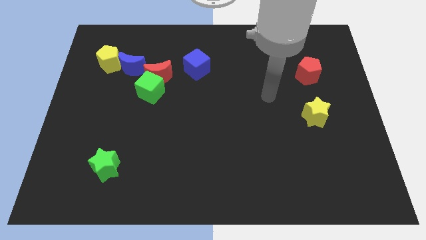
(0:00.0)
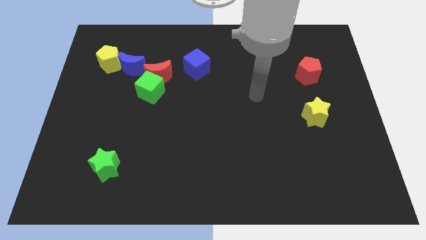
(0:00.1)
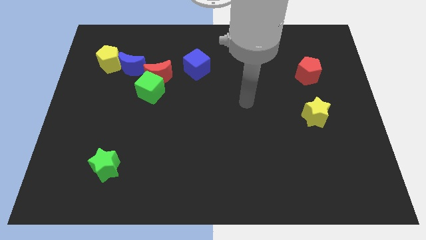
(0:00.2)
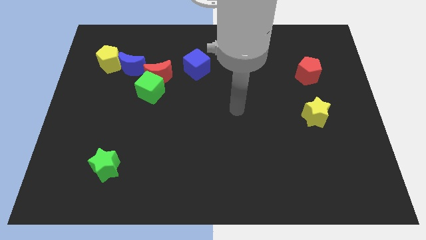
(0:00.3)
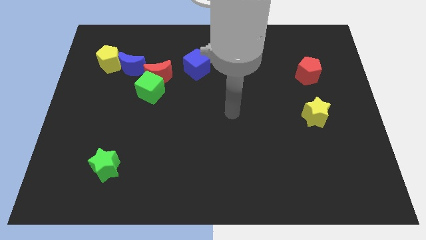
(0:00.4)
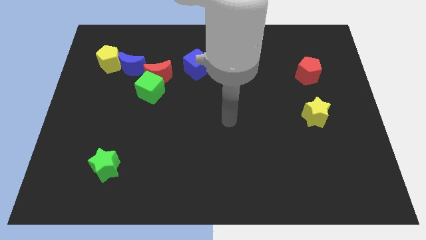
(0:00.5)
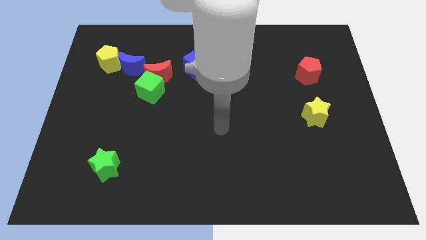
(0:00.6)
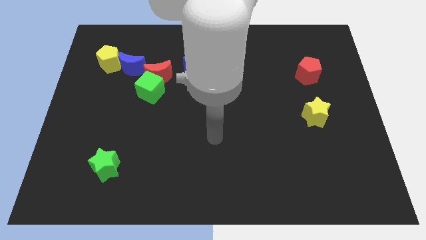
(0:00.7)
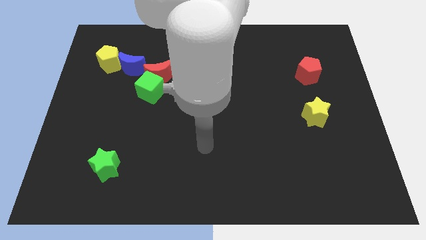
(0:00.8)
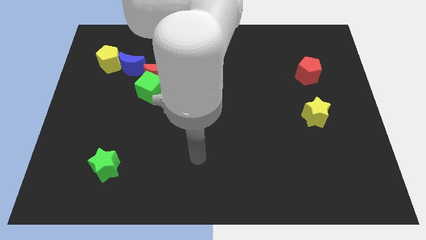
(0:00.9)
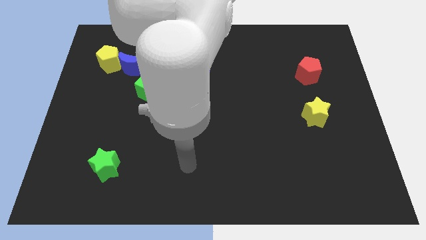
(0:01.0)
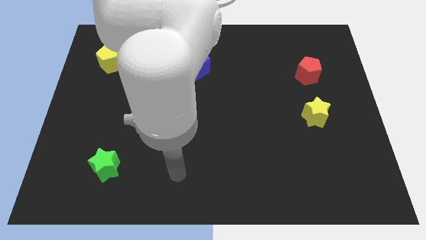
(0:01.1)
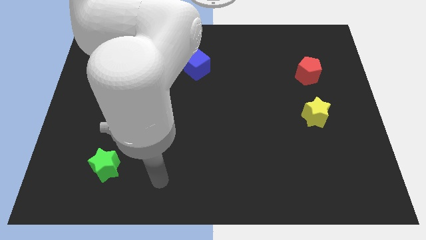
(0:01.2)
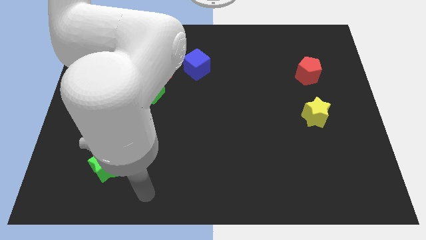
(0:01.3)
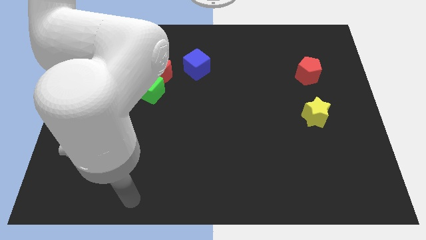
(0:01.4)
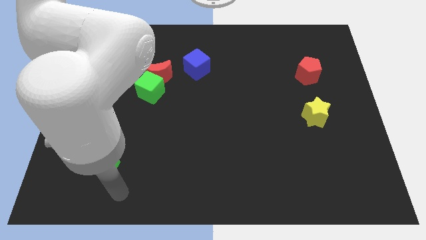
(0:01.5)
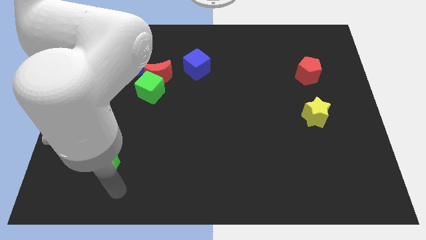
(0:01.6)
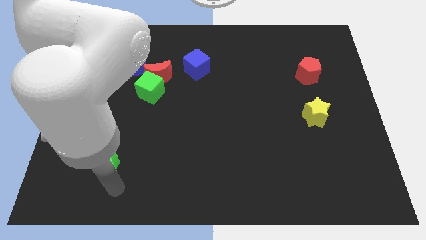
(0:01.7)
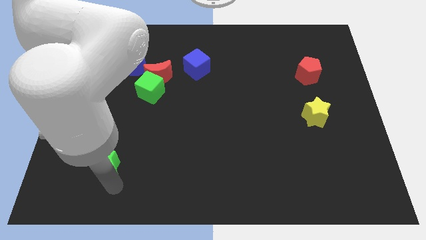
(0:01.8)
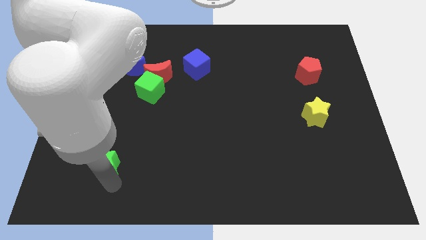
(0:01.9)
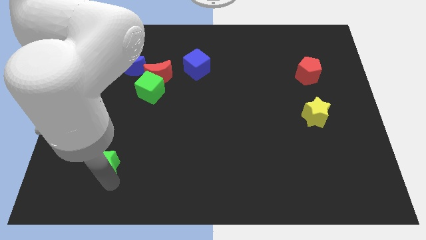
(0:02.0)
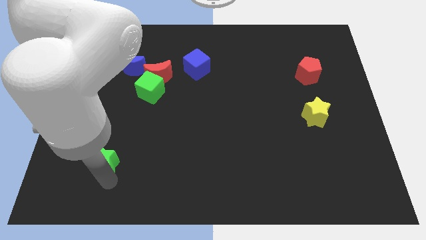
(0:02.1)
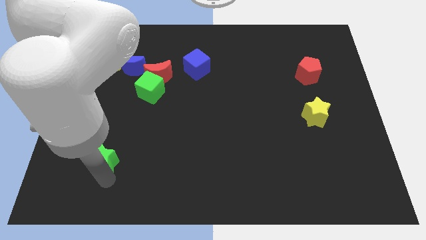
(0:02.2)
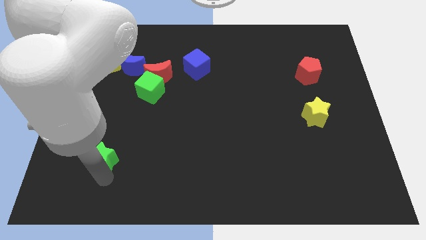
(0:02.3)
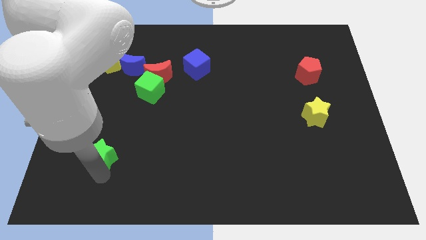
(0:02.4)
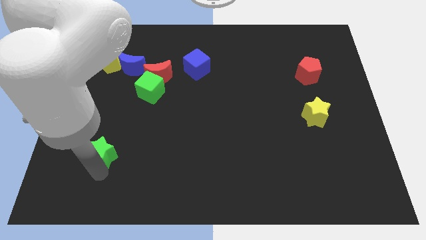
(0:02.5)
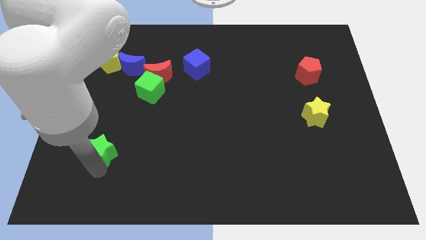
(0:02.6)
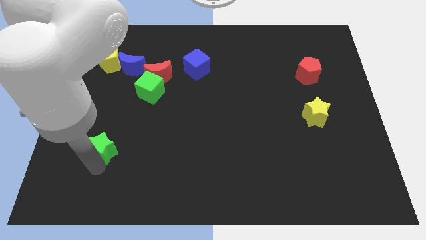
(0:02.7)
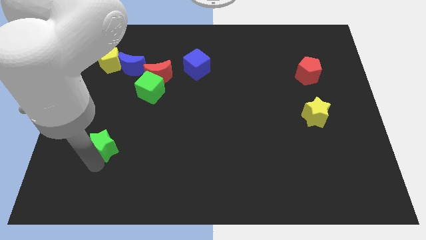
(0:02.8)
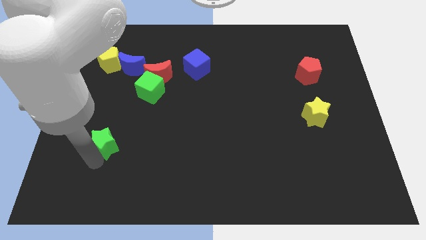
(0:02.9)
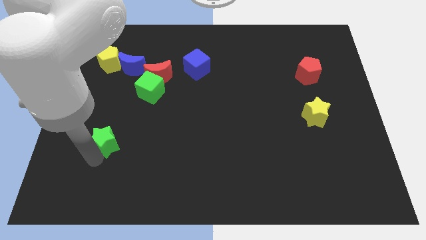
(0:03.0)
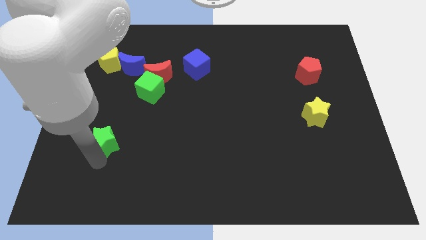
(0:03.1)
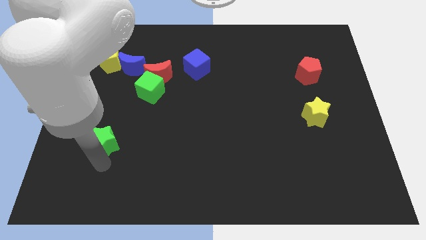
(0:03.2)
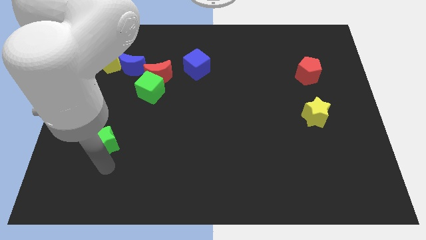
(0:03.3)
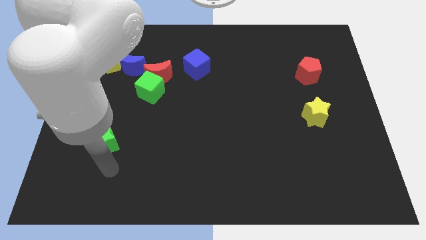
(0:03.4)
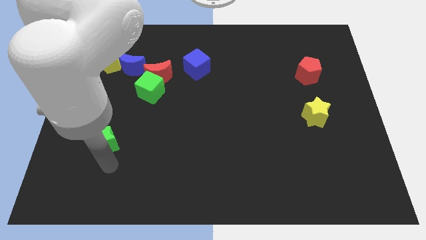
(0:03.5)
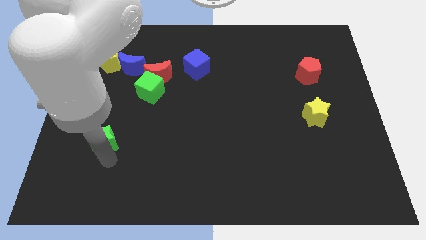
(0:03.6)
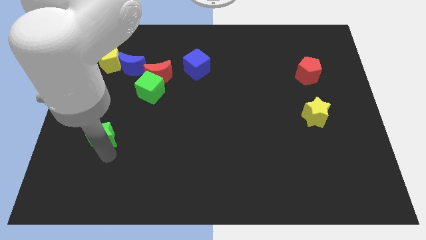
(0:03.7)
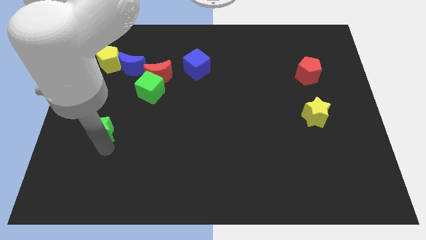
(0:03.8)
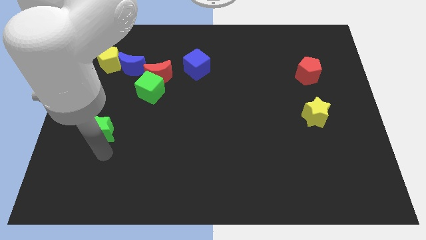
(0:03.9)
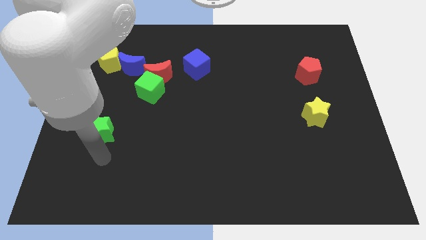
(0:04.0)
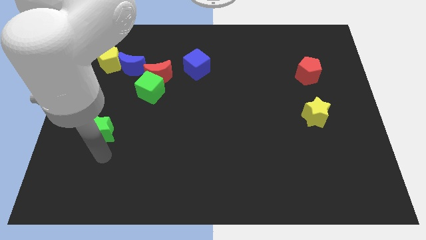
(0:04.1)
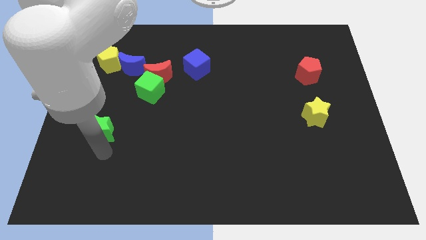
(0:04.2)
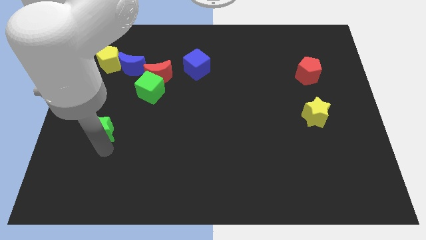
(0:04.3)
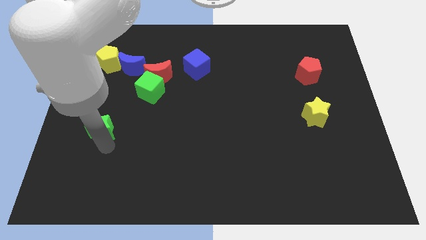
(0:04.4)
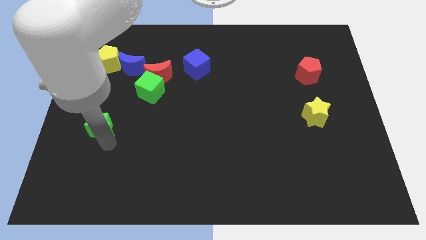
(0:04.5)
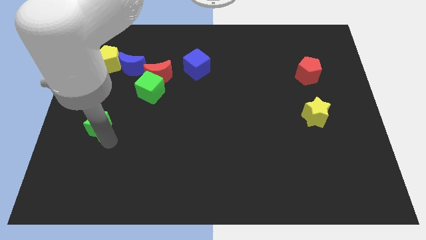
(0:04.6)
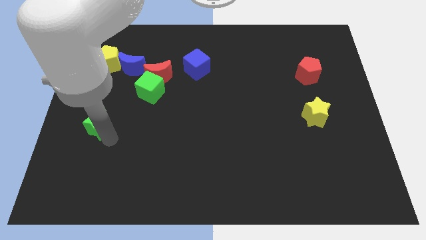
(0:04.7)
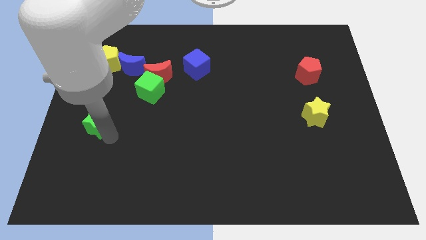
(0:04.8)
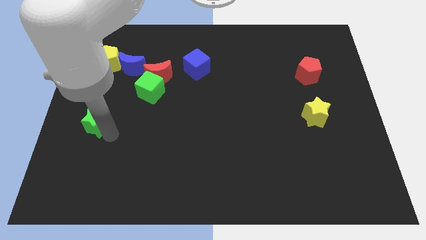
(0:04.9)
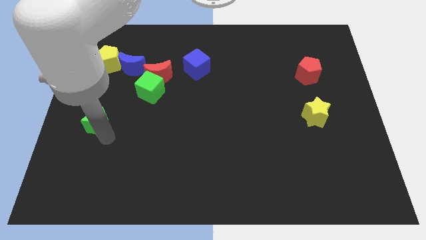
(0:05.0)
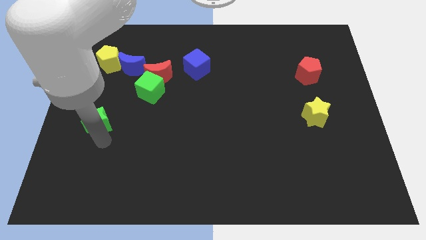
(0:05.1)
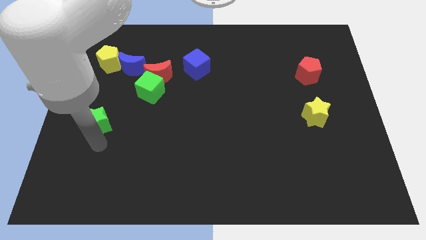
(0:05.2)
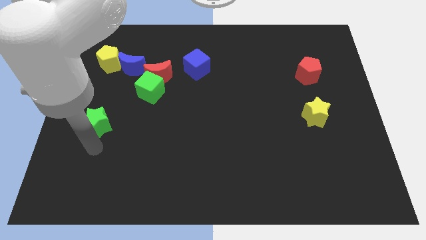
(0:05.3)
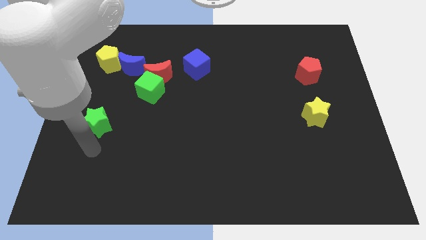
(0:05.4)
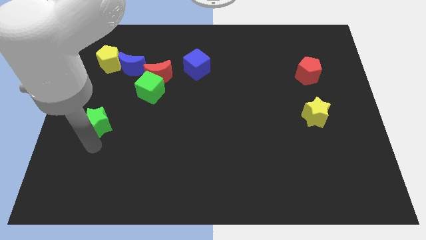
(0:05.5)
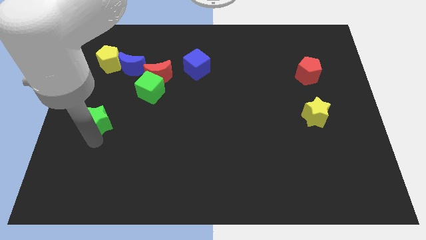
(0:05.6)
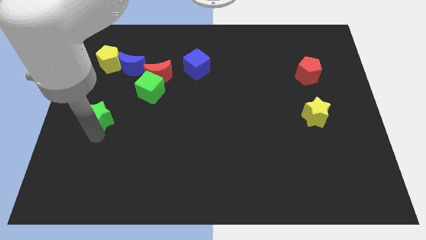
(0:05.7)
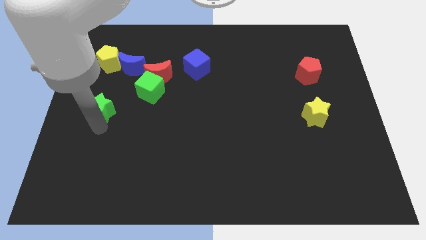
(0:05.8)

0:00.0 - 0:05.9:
move the green star below the yellow pentagon
